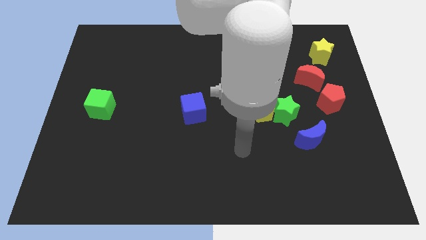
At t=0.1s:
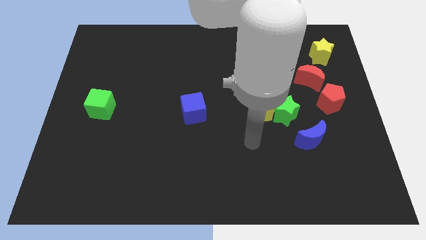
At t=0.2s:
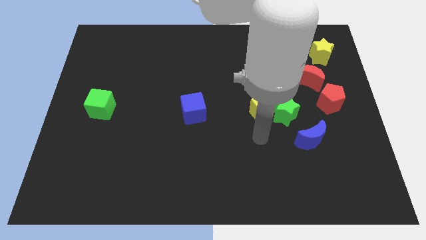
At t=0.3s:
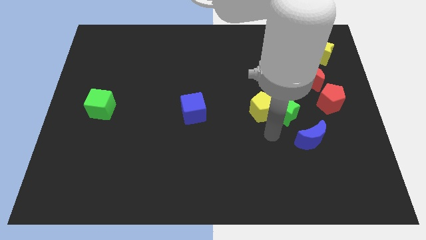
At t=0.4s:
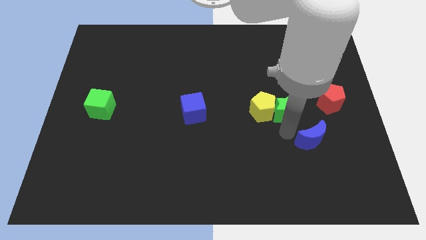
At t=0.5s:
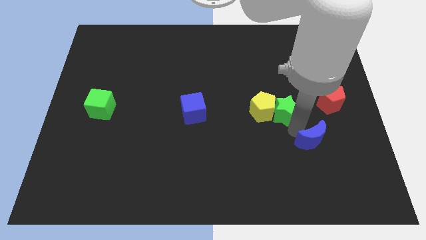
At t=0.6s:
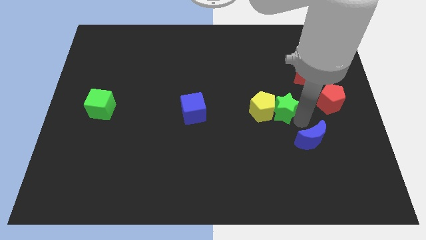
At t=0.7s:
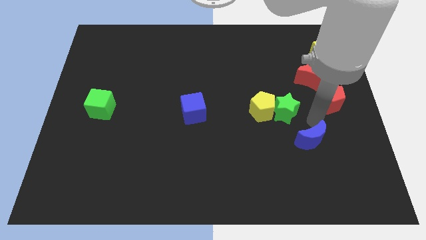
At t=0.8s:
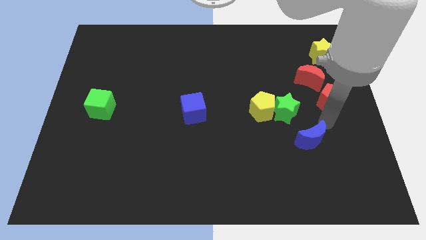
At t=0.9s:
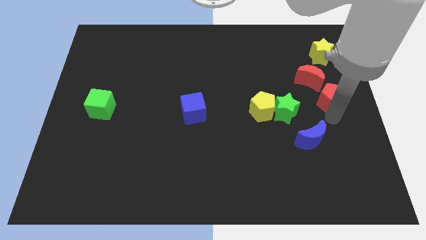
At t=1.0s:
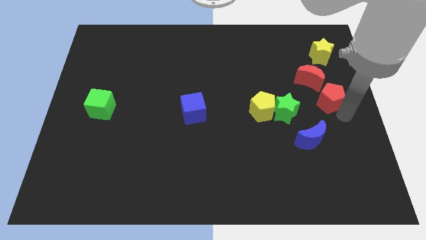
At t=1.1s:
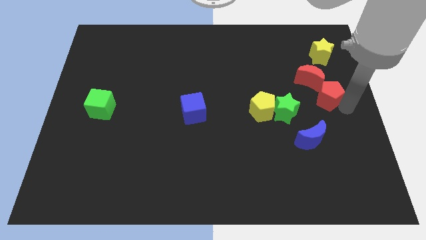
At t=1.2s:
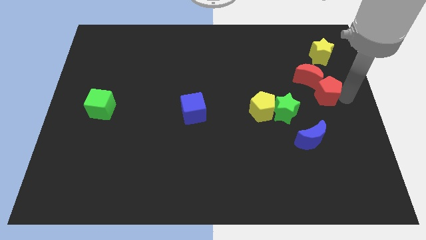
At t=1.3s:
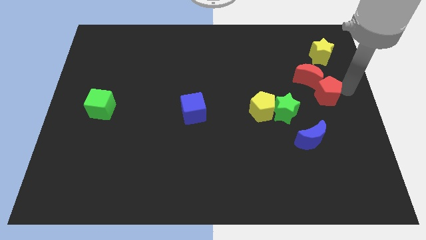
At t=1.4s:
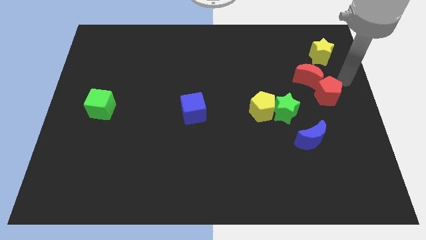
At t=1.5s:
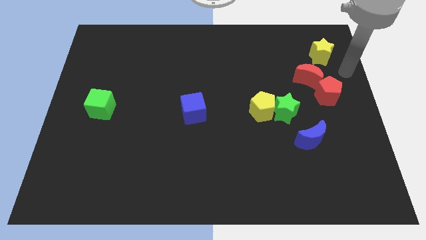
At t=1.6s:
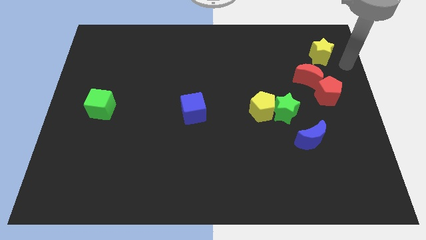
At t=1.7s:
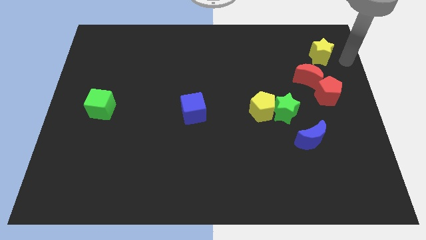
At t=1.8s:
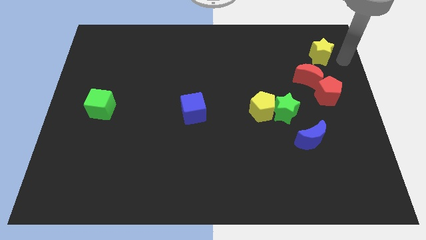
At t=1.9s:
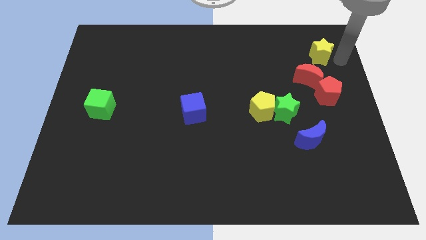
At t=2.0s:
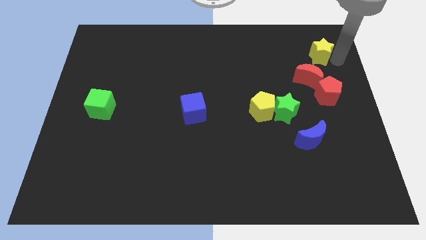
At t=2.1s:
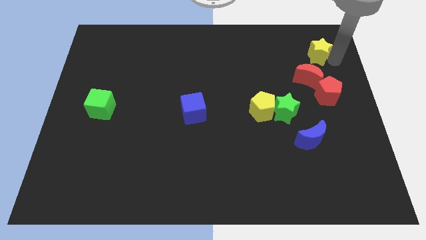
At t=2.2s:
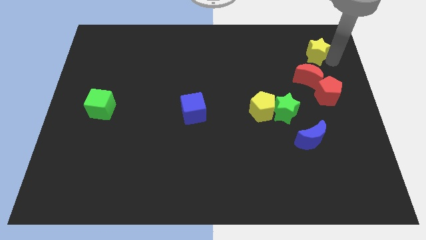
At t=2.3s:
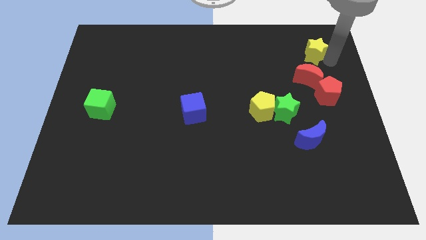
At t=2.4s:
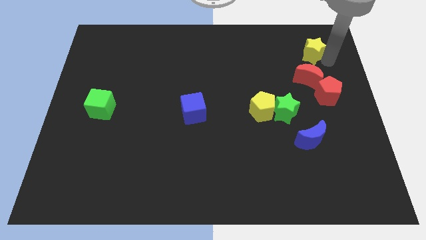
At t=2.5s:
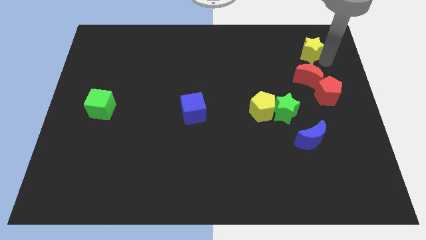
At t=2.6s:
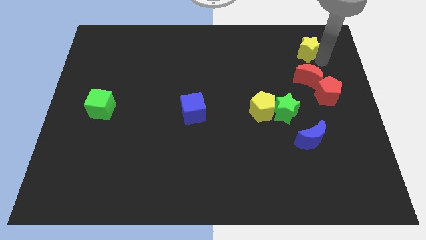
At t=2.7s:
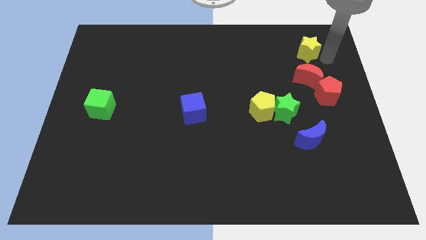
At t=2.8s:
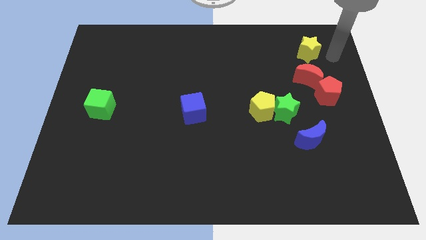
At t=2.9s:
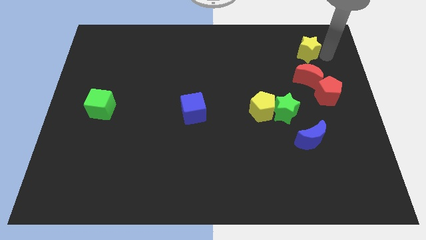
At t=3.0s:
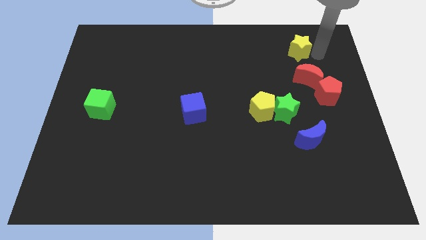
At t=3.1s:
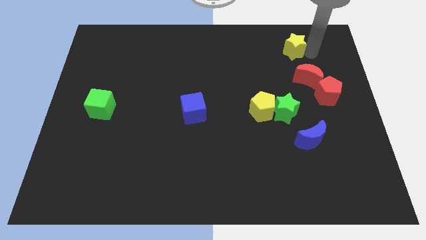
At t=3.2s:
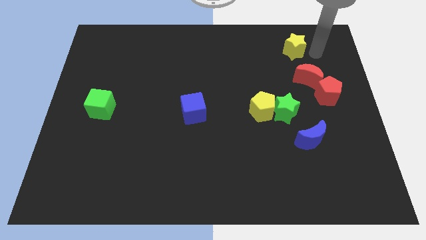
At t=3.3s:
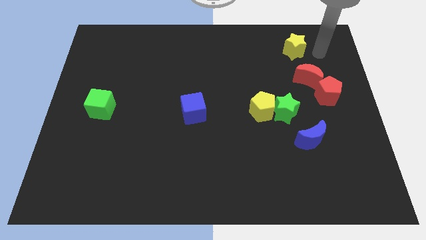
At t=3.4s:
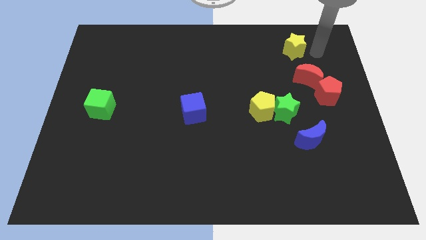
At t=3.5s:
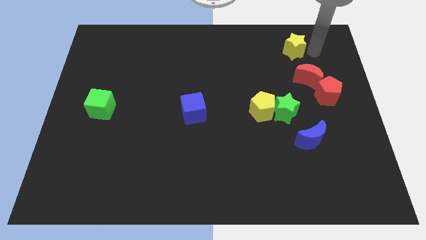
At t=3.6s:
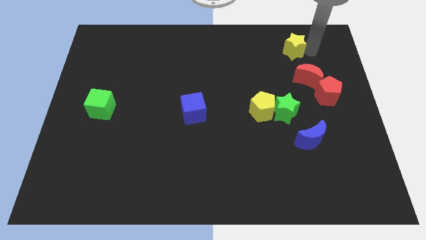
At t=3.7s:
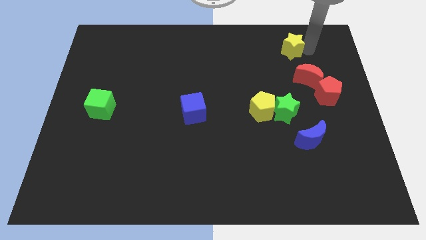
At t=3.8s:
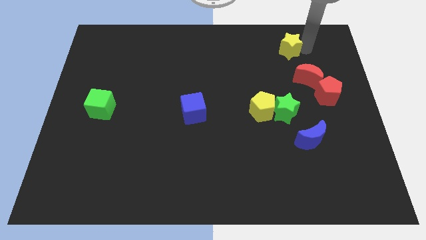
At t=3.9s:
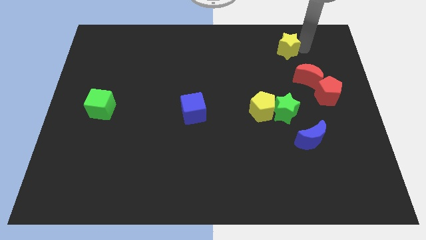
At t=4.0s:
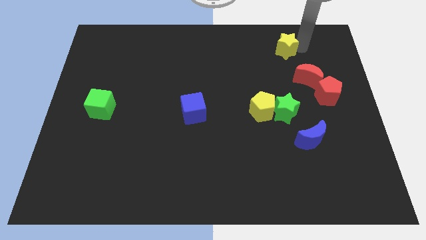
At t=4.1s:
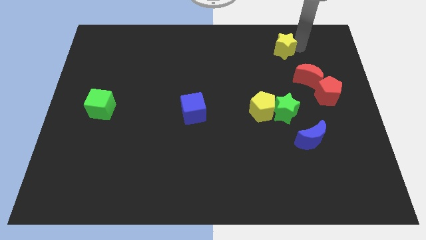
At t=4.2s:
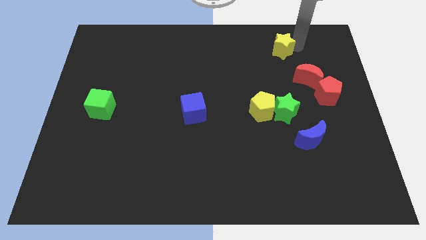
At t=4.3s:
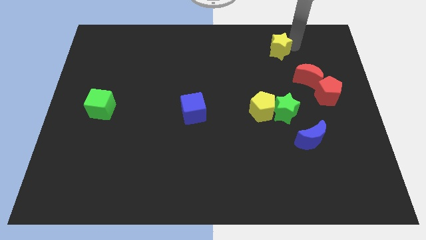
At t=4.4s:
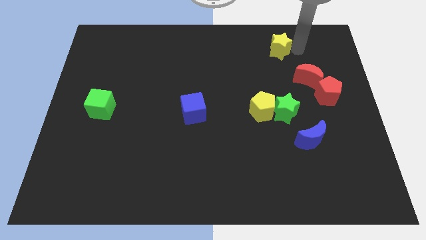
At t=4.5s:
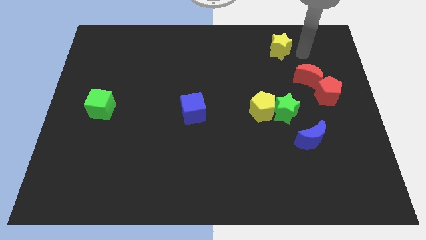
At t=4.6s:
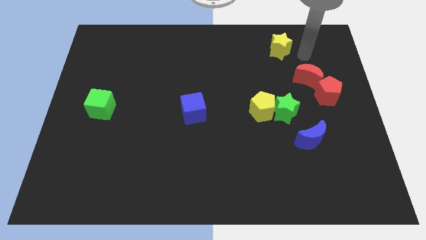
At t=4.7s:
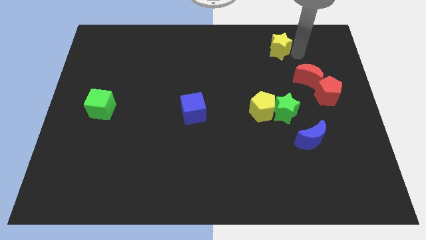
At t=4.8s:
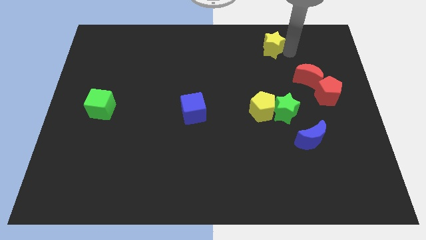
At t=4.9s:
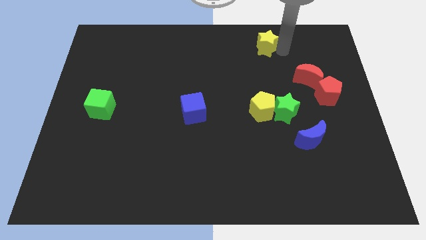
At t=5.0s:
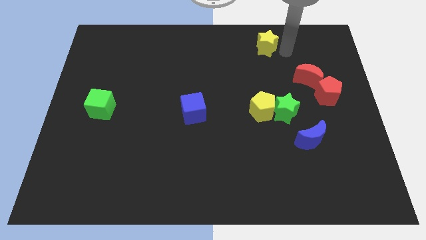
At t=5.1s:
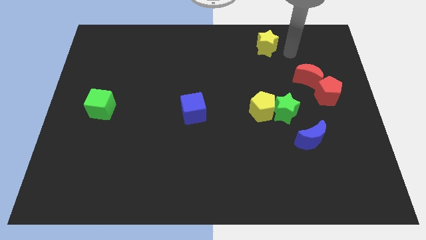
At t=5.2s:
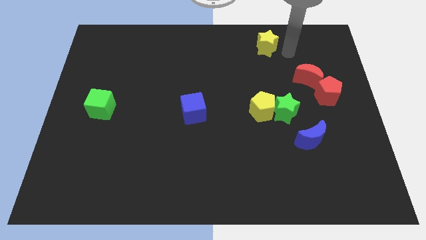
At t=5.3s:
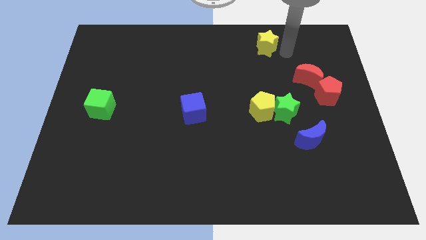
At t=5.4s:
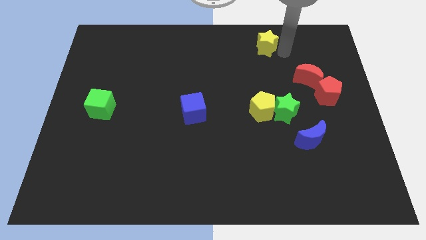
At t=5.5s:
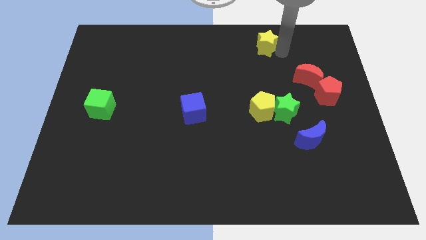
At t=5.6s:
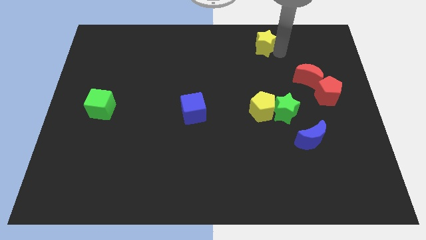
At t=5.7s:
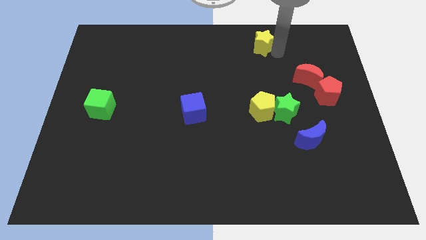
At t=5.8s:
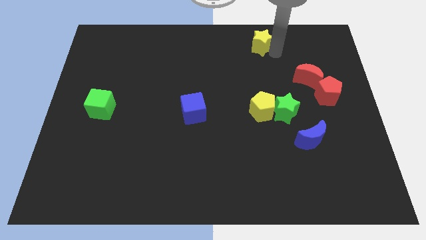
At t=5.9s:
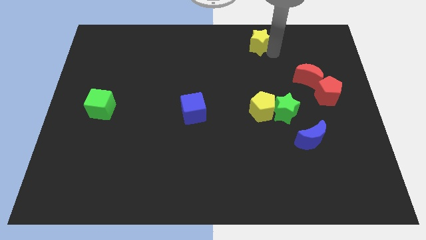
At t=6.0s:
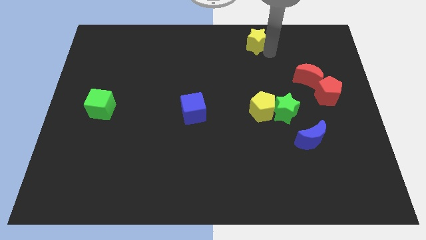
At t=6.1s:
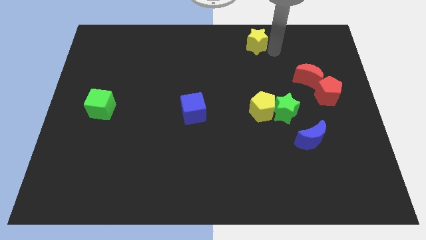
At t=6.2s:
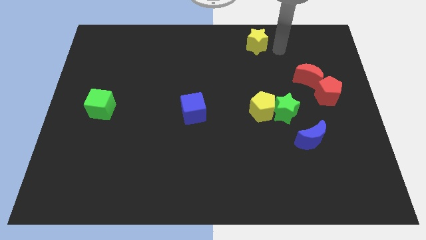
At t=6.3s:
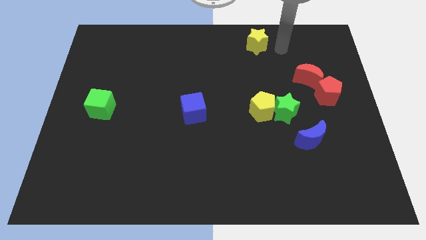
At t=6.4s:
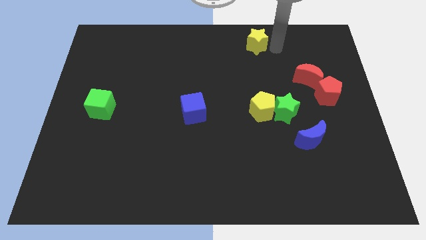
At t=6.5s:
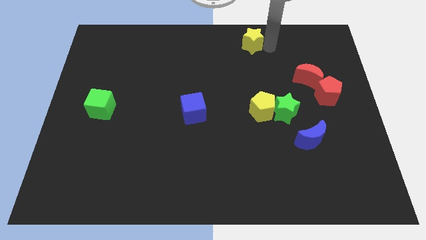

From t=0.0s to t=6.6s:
move the yellow star to the towards your base

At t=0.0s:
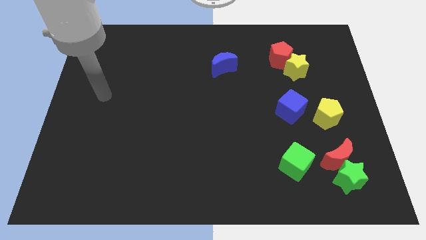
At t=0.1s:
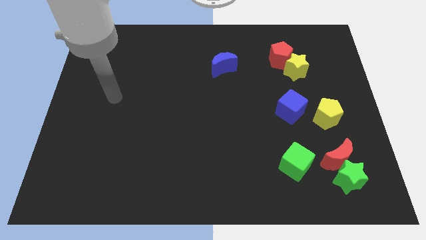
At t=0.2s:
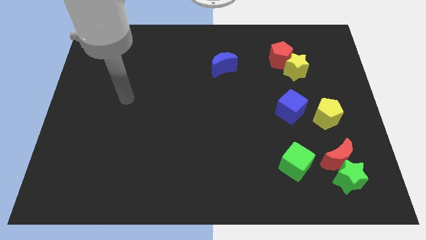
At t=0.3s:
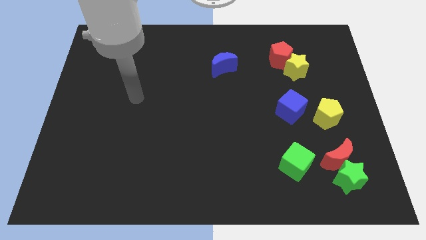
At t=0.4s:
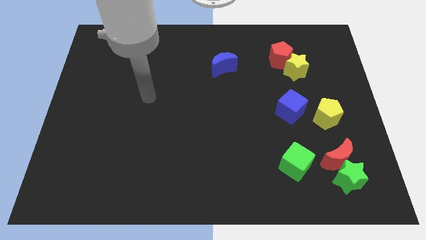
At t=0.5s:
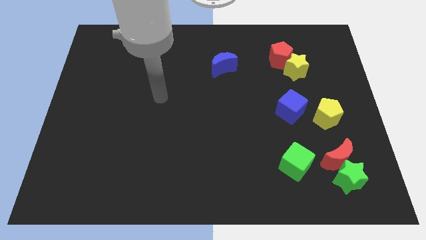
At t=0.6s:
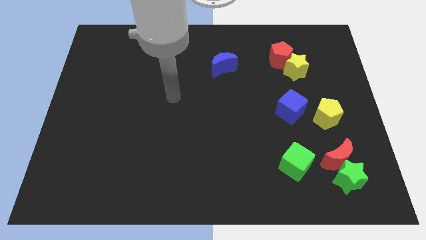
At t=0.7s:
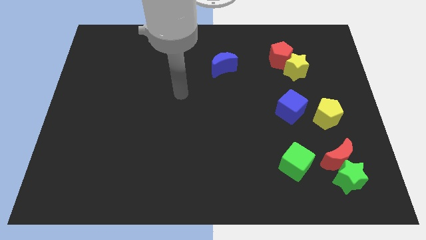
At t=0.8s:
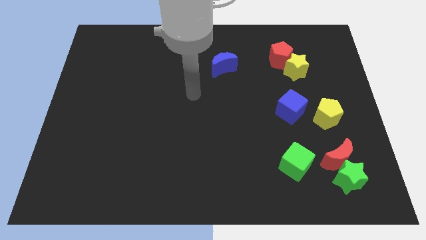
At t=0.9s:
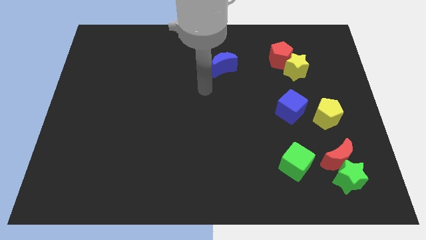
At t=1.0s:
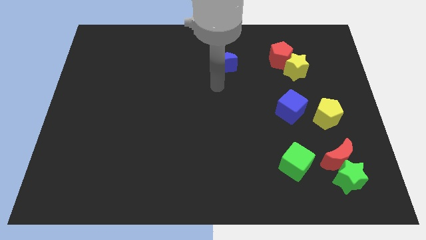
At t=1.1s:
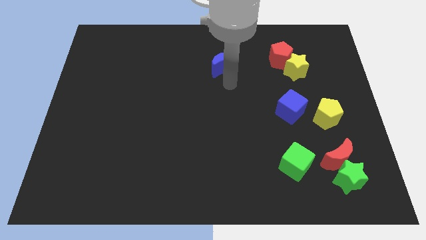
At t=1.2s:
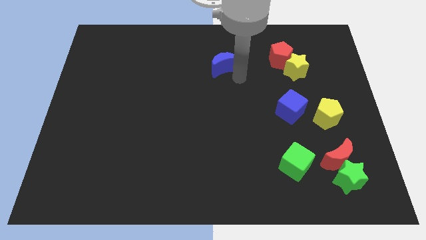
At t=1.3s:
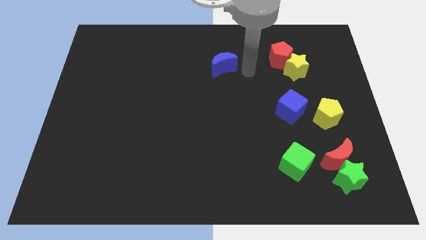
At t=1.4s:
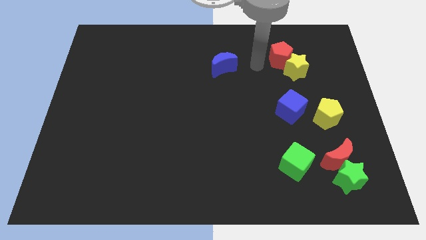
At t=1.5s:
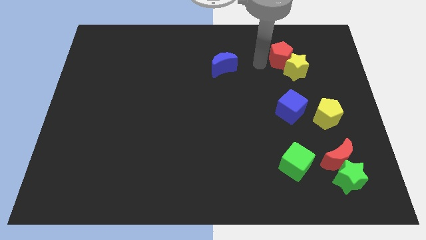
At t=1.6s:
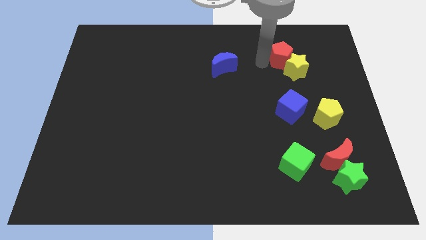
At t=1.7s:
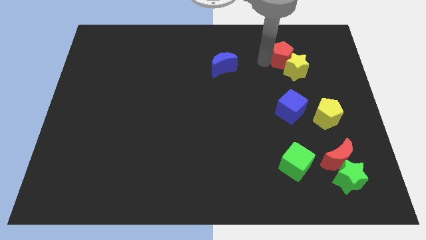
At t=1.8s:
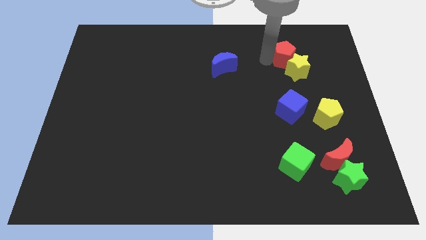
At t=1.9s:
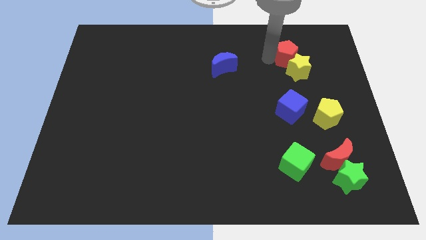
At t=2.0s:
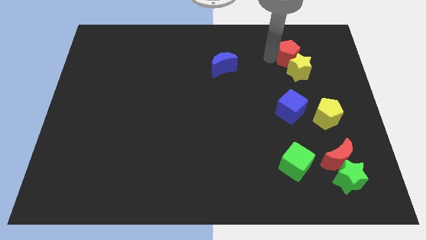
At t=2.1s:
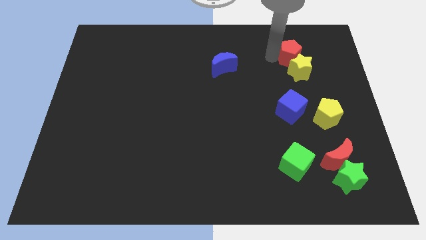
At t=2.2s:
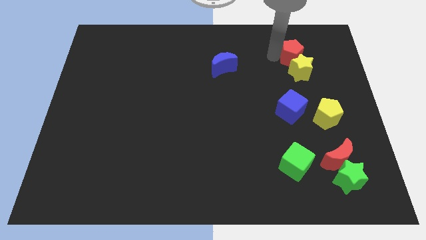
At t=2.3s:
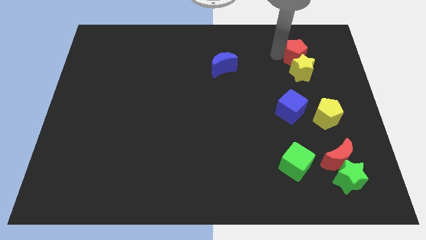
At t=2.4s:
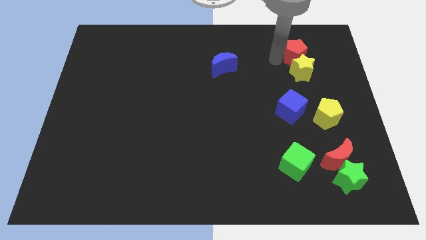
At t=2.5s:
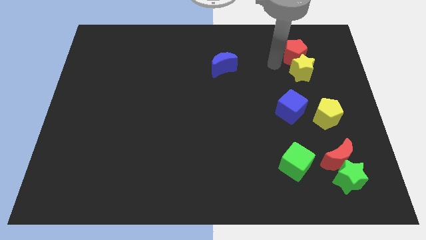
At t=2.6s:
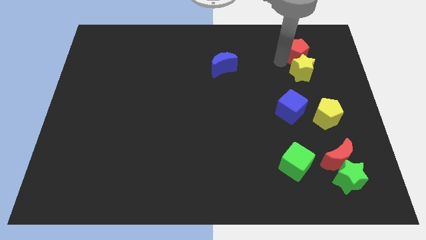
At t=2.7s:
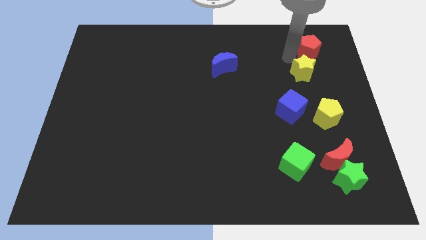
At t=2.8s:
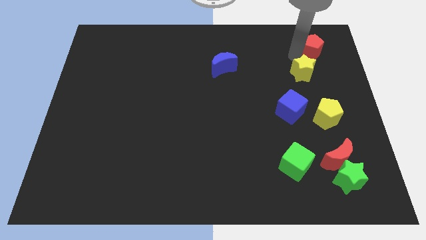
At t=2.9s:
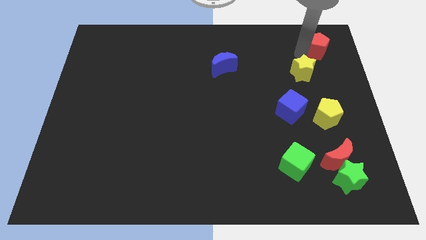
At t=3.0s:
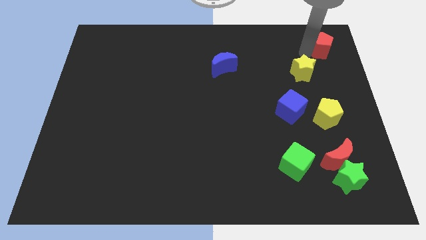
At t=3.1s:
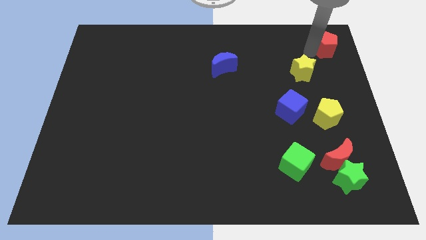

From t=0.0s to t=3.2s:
slide the red pentagon to the upper right corner
